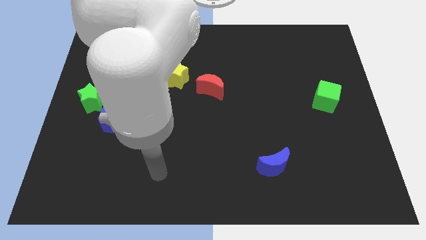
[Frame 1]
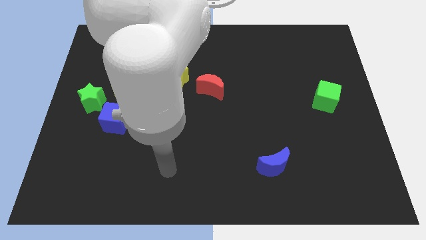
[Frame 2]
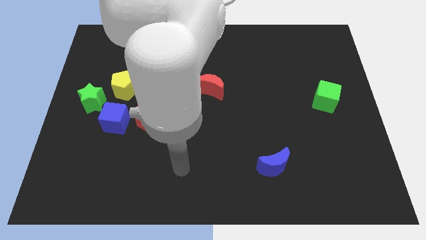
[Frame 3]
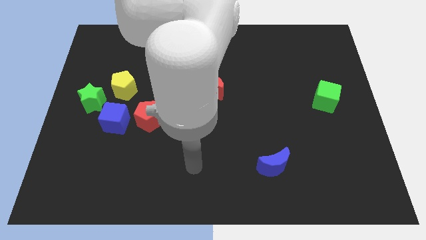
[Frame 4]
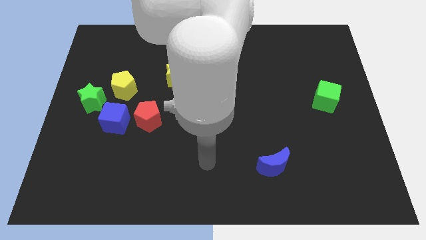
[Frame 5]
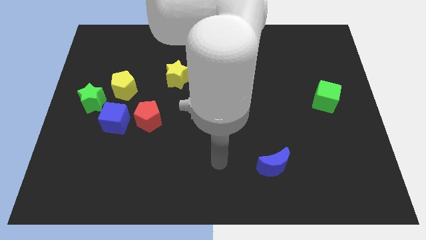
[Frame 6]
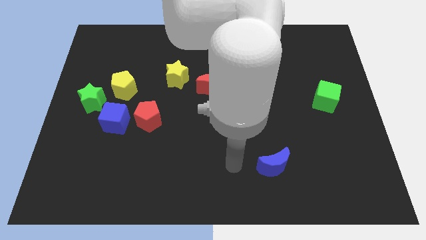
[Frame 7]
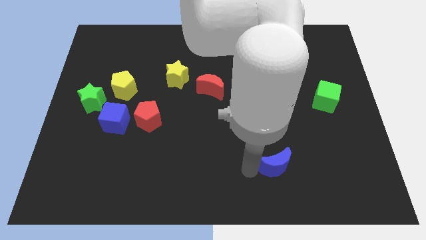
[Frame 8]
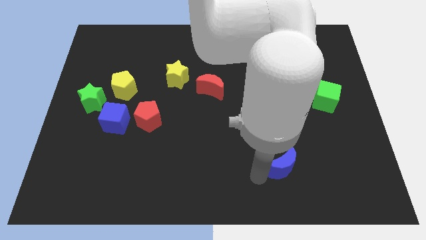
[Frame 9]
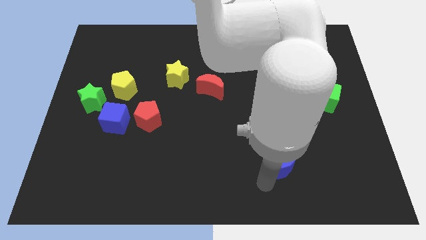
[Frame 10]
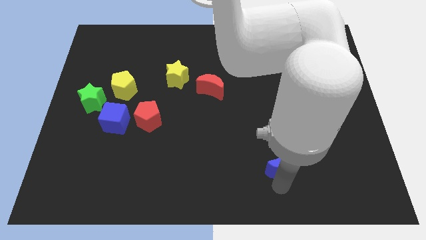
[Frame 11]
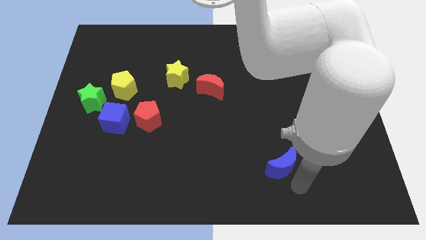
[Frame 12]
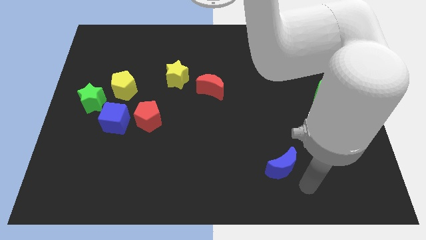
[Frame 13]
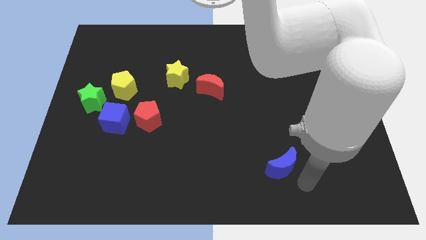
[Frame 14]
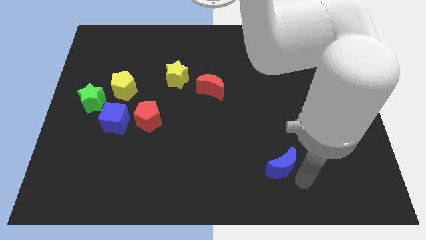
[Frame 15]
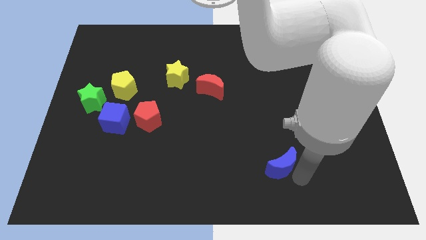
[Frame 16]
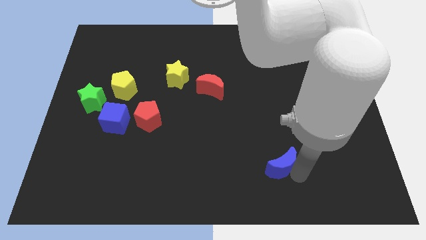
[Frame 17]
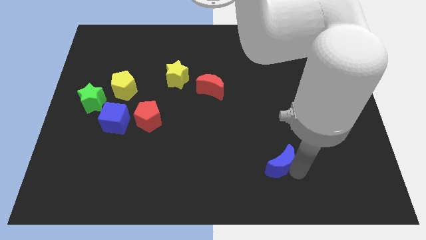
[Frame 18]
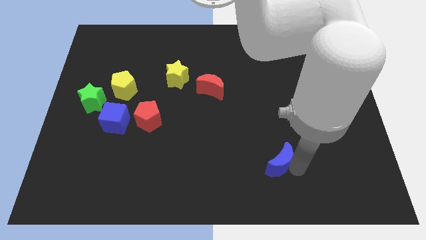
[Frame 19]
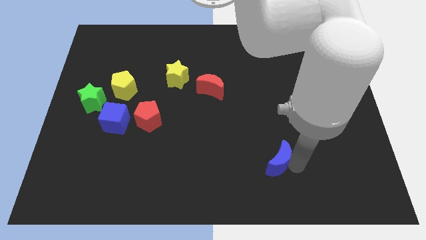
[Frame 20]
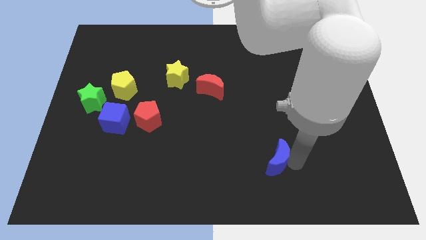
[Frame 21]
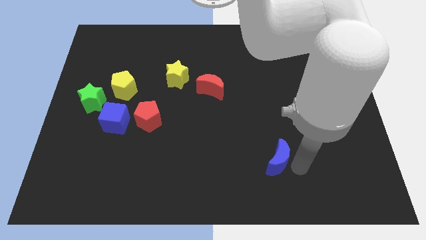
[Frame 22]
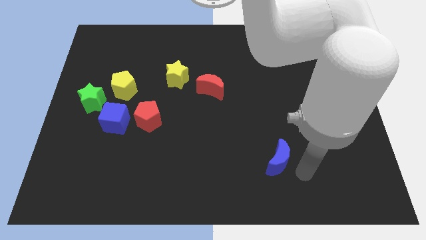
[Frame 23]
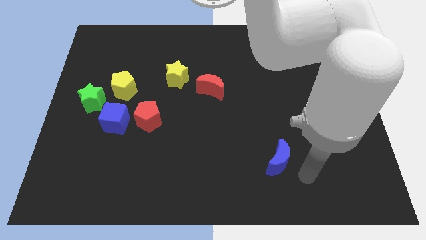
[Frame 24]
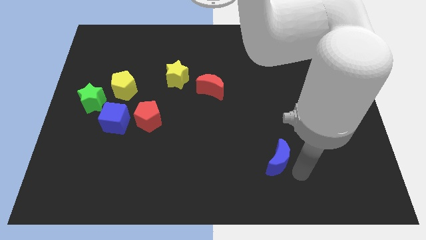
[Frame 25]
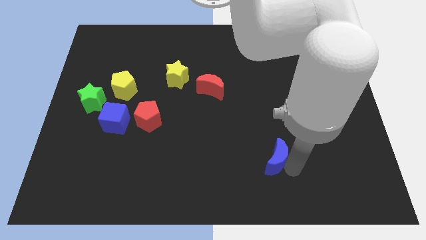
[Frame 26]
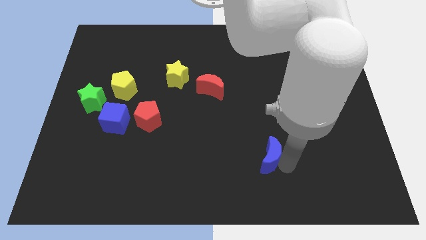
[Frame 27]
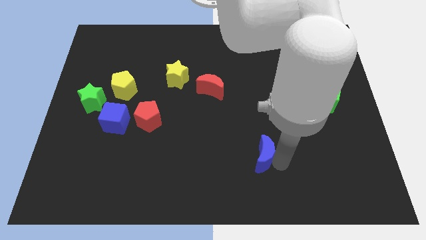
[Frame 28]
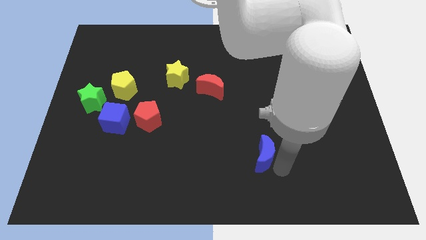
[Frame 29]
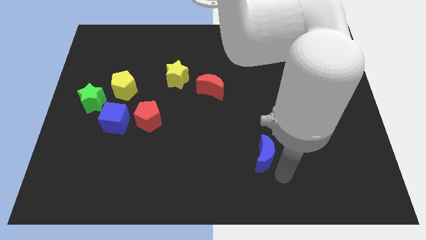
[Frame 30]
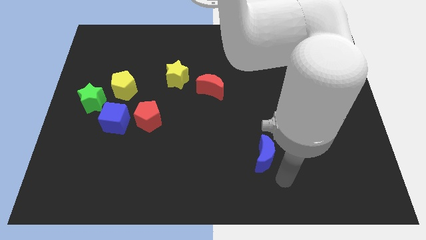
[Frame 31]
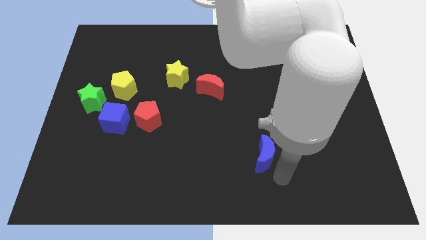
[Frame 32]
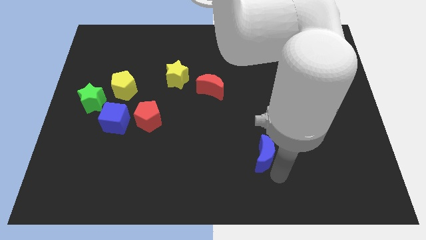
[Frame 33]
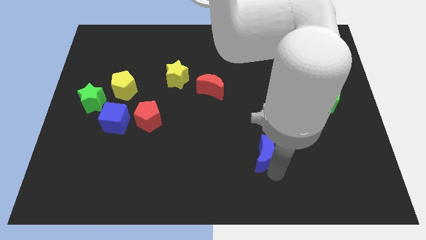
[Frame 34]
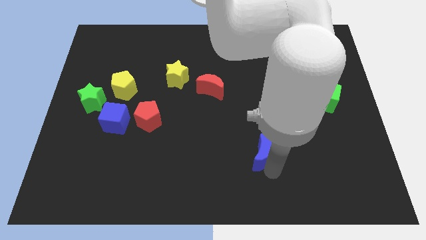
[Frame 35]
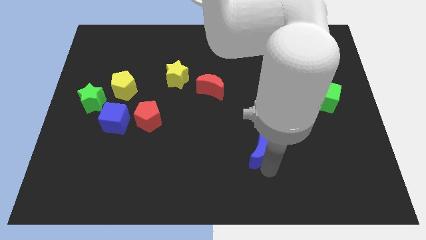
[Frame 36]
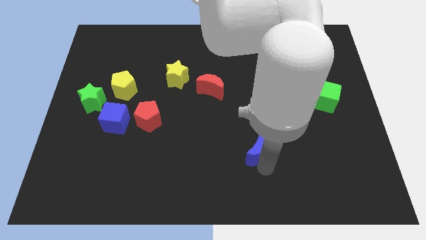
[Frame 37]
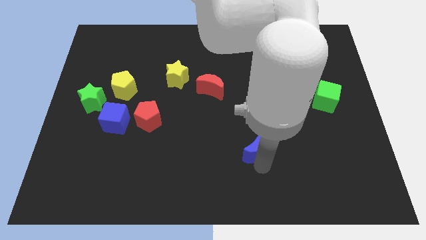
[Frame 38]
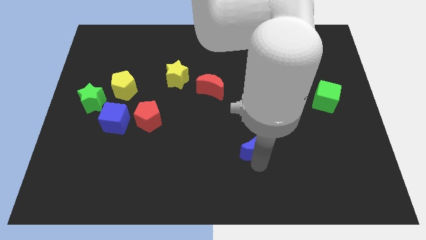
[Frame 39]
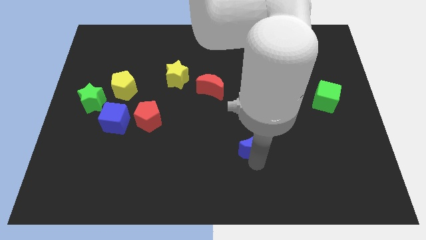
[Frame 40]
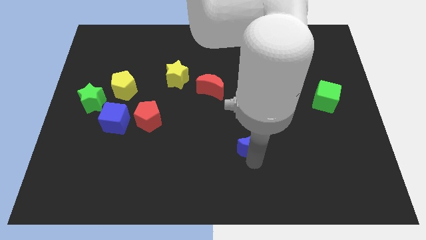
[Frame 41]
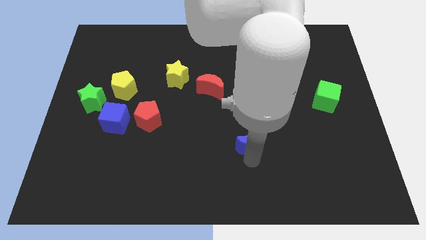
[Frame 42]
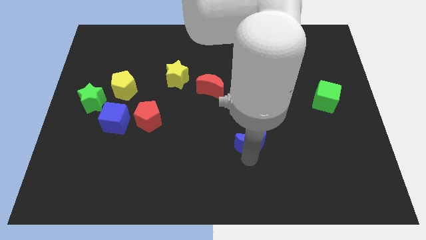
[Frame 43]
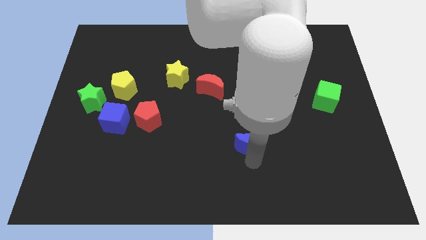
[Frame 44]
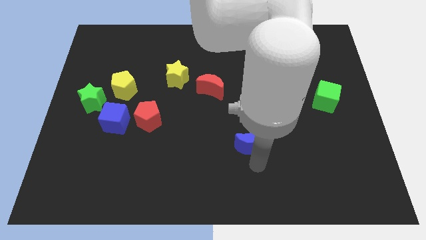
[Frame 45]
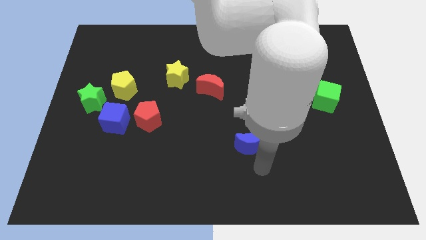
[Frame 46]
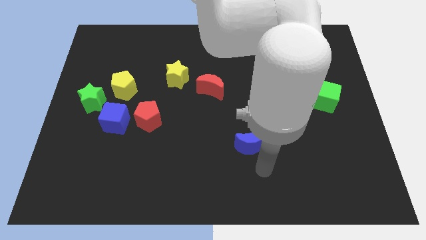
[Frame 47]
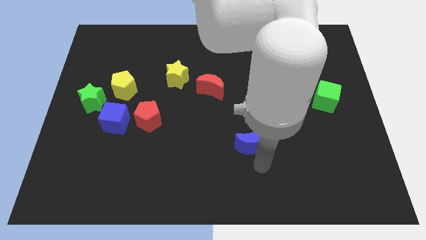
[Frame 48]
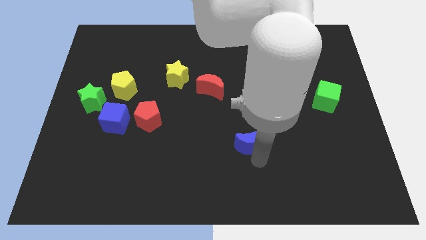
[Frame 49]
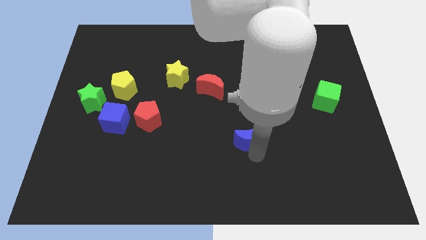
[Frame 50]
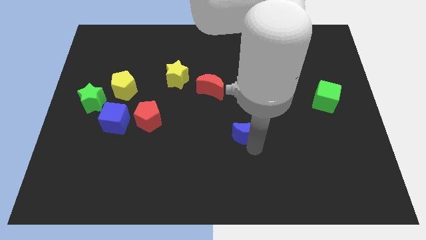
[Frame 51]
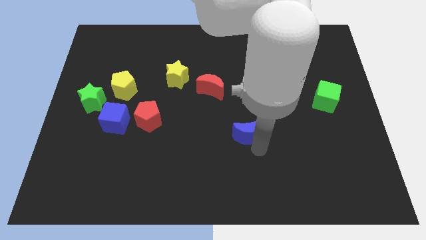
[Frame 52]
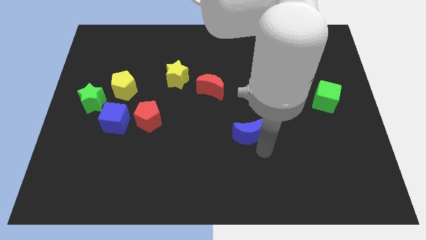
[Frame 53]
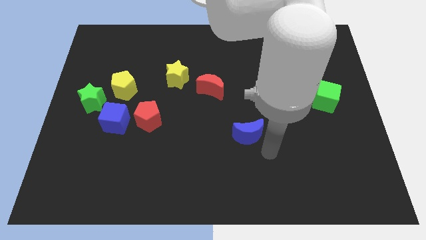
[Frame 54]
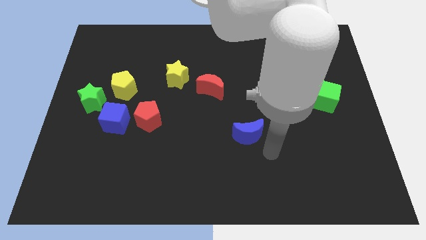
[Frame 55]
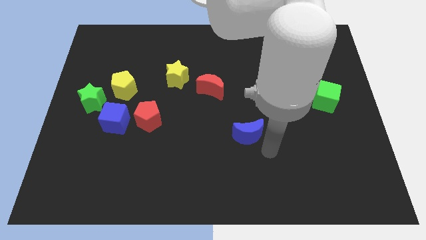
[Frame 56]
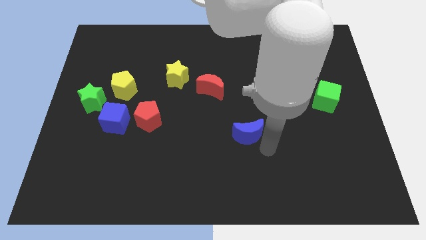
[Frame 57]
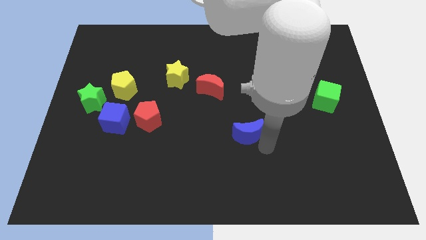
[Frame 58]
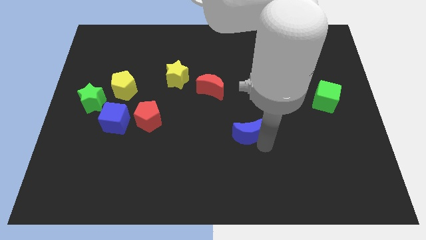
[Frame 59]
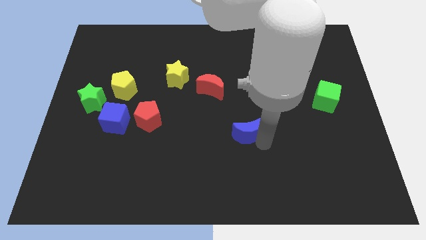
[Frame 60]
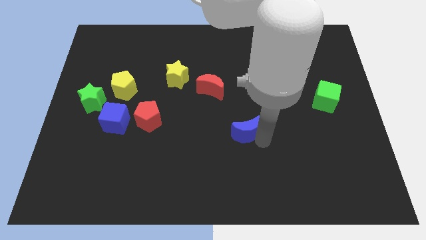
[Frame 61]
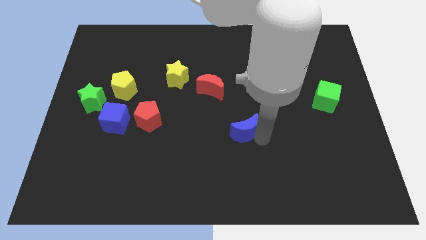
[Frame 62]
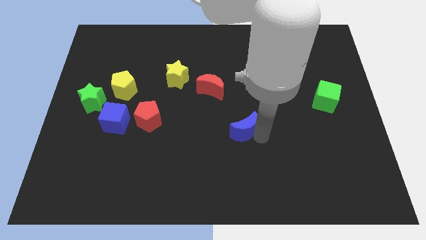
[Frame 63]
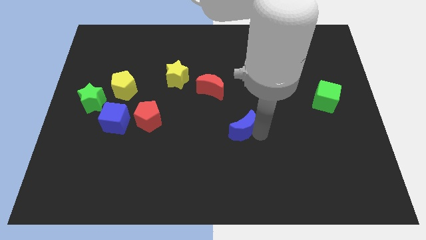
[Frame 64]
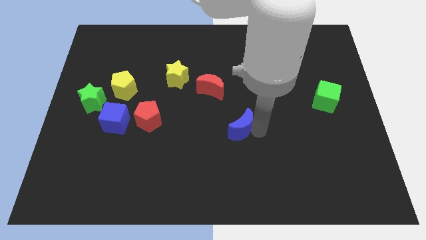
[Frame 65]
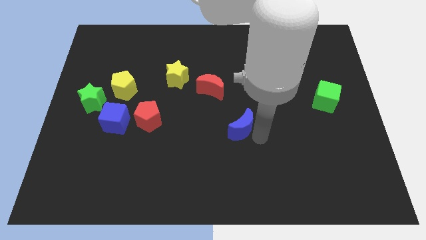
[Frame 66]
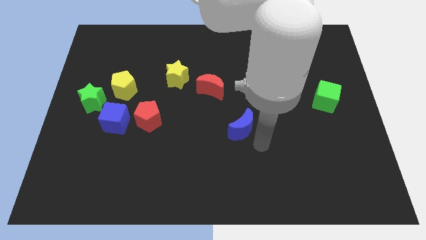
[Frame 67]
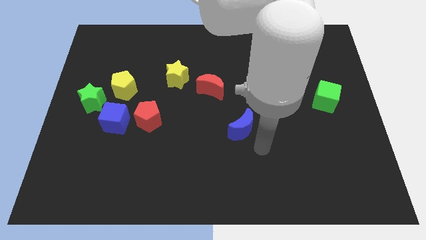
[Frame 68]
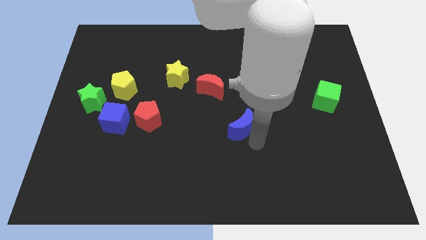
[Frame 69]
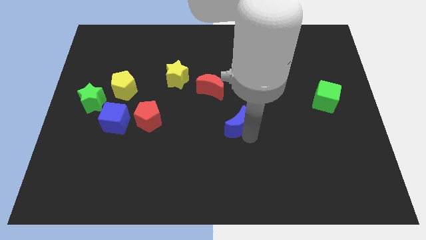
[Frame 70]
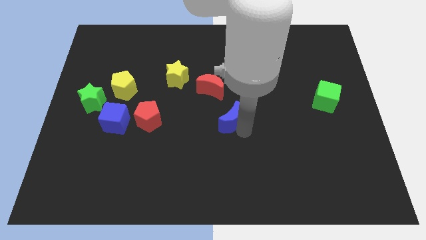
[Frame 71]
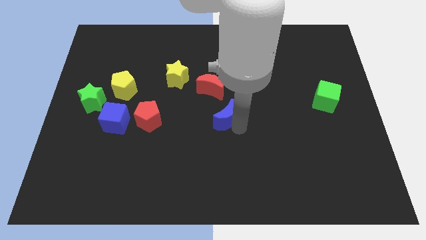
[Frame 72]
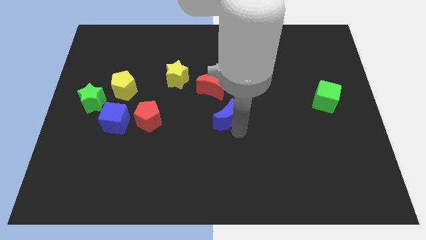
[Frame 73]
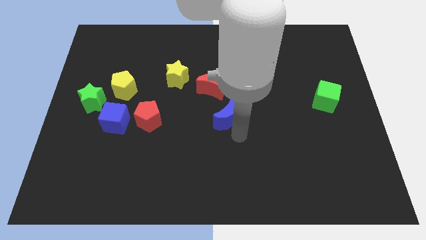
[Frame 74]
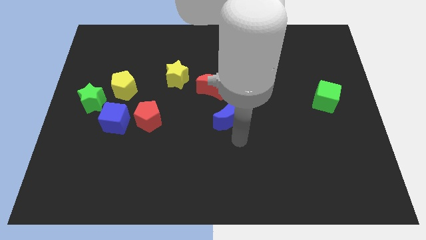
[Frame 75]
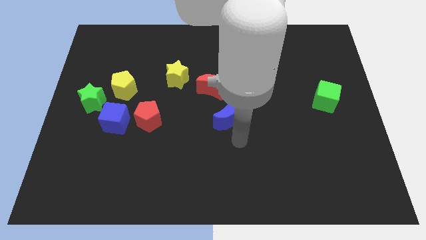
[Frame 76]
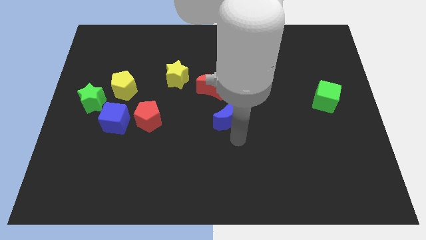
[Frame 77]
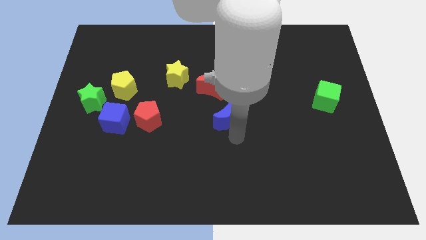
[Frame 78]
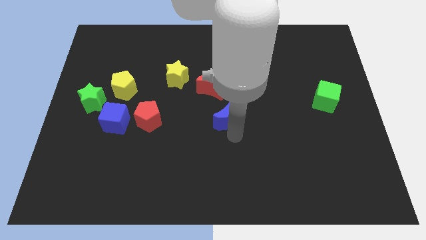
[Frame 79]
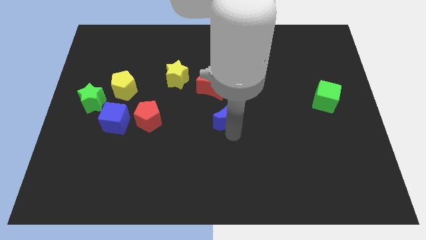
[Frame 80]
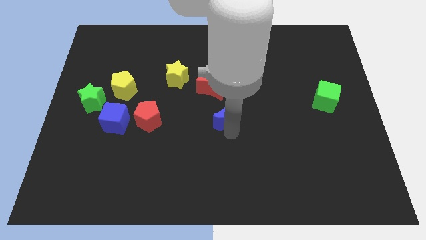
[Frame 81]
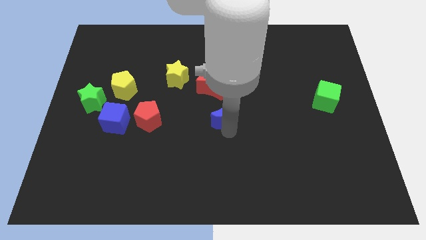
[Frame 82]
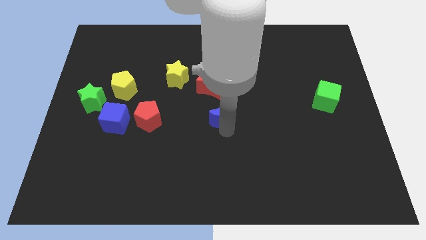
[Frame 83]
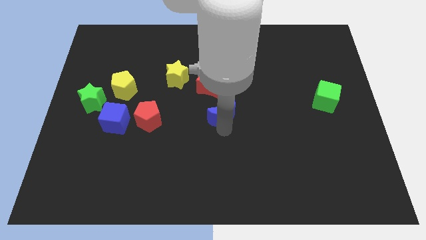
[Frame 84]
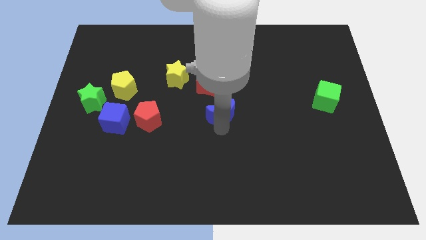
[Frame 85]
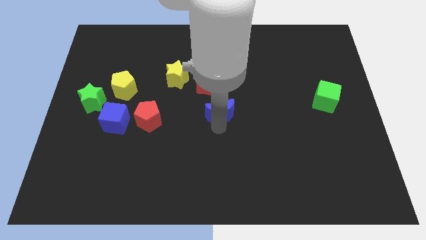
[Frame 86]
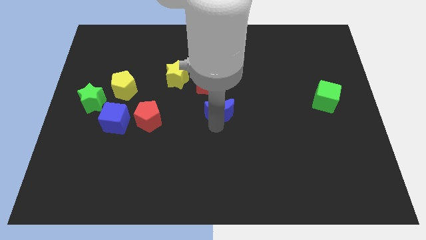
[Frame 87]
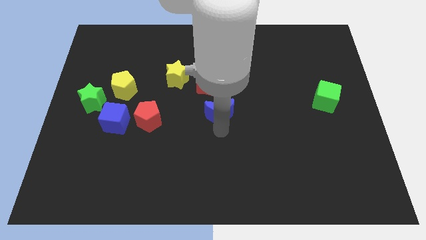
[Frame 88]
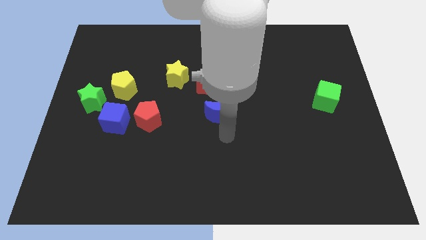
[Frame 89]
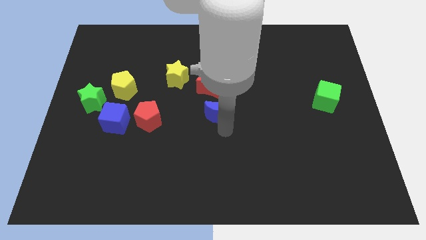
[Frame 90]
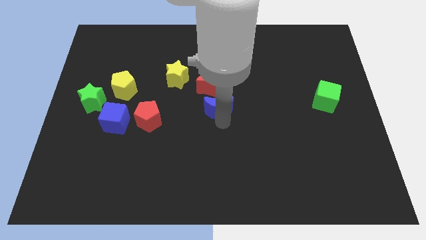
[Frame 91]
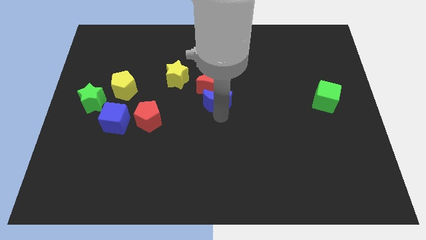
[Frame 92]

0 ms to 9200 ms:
push the blue moon close to the red moon
